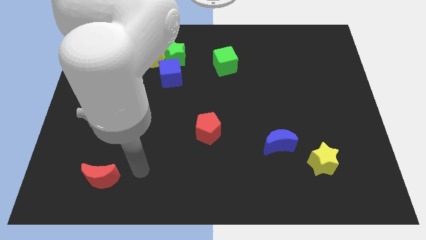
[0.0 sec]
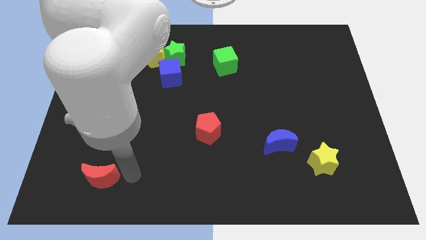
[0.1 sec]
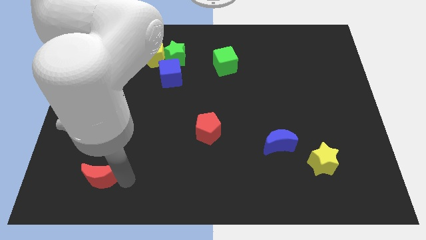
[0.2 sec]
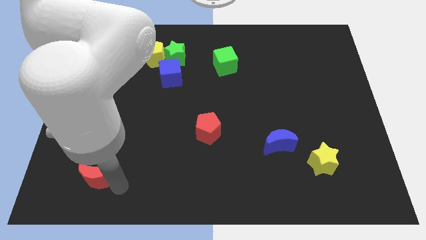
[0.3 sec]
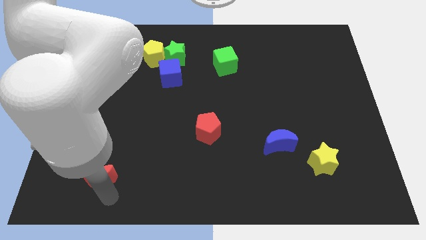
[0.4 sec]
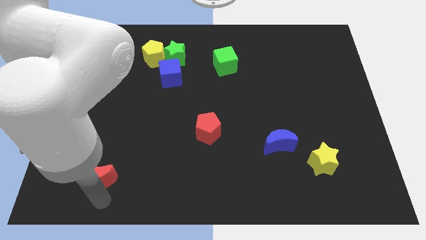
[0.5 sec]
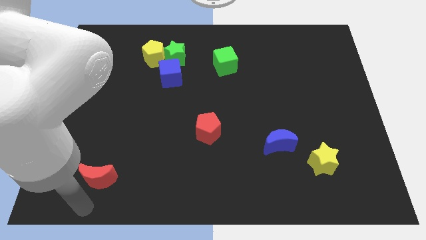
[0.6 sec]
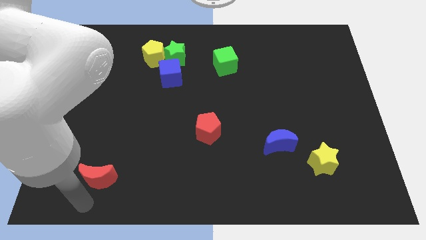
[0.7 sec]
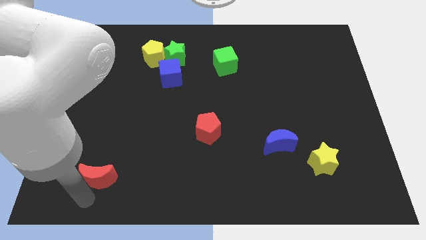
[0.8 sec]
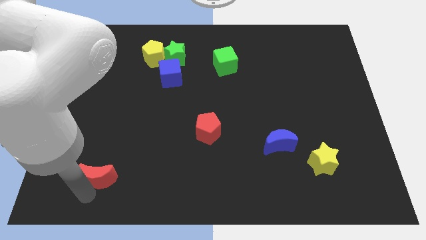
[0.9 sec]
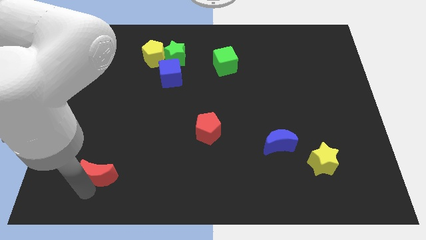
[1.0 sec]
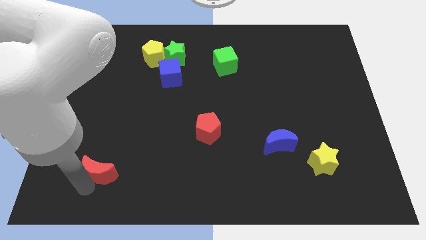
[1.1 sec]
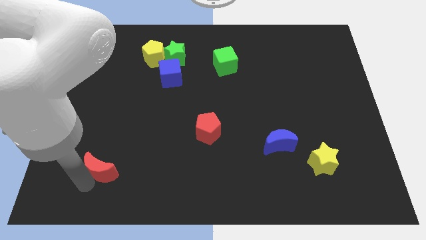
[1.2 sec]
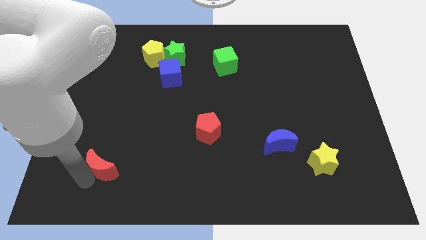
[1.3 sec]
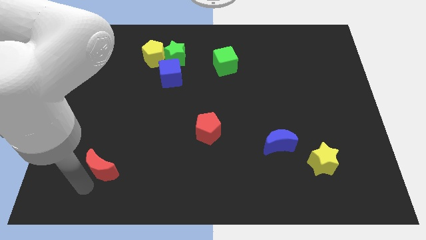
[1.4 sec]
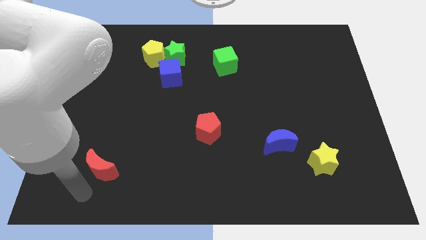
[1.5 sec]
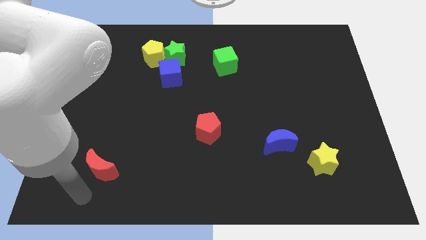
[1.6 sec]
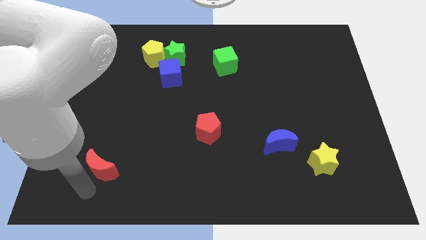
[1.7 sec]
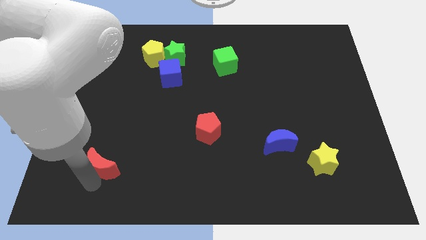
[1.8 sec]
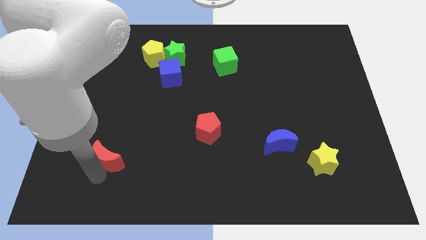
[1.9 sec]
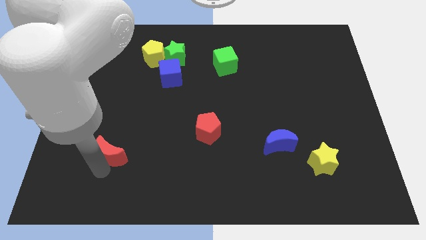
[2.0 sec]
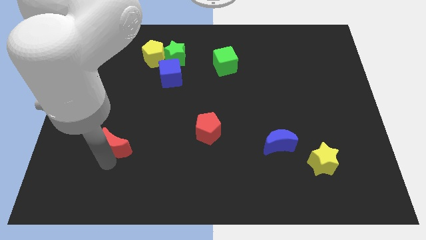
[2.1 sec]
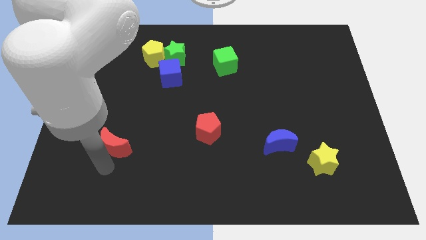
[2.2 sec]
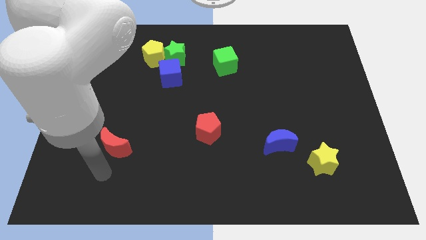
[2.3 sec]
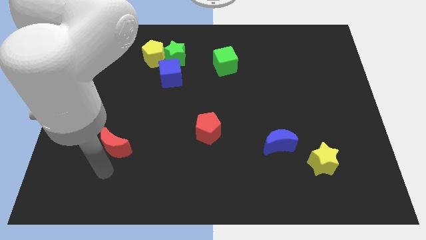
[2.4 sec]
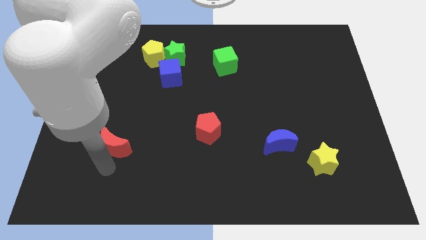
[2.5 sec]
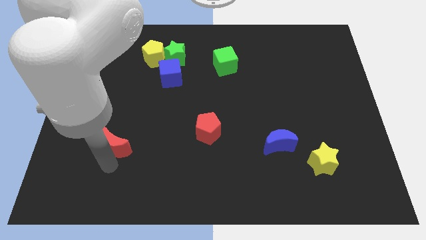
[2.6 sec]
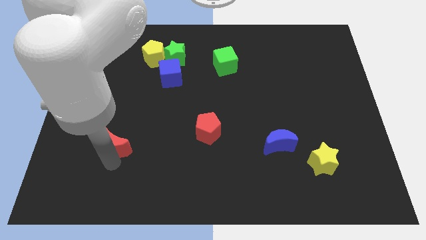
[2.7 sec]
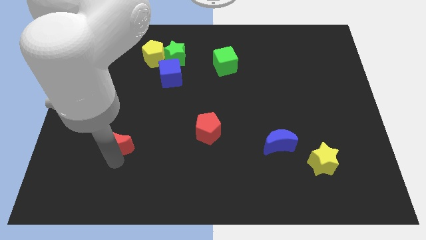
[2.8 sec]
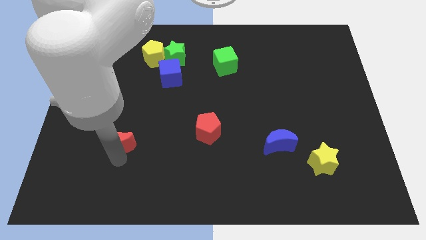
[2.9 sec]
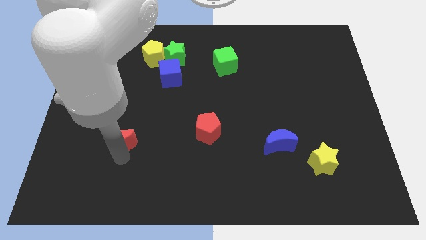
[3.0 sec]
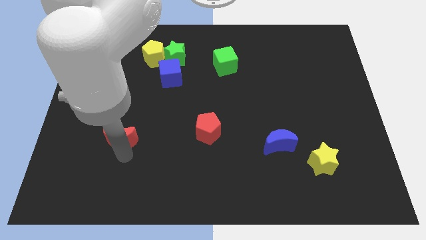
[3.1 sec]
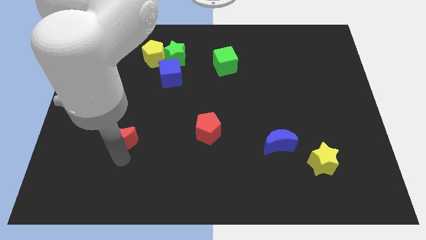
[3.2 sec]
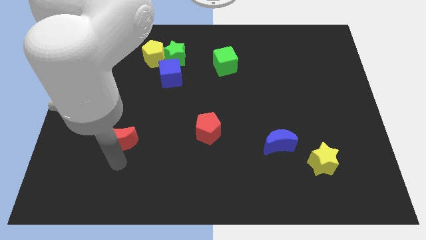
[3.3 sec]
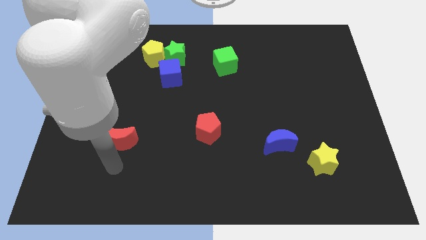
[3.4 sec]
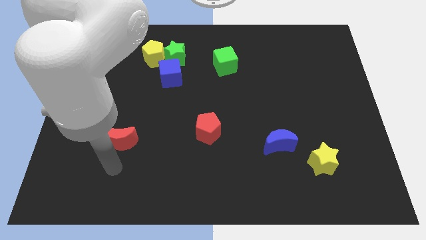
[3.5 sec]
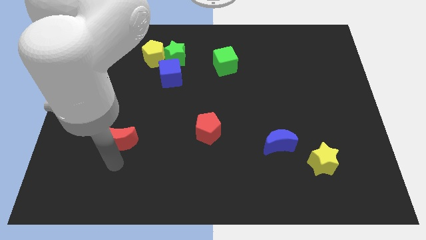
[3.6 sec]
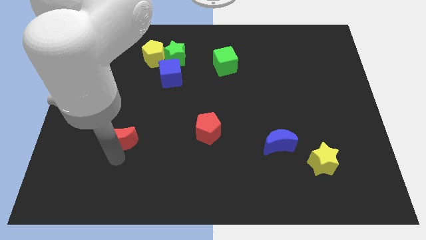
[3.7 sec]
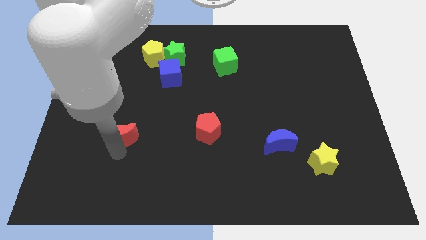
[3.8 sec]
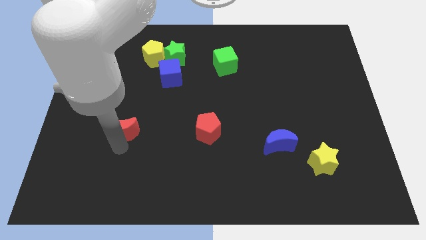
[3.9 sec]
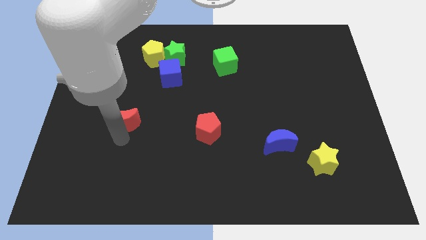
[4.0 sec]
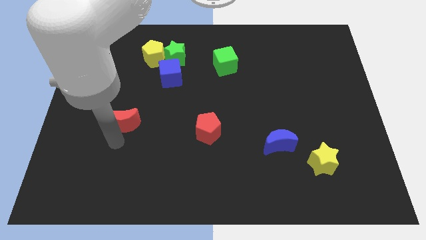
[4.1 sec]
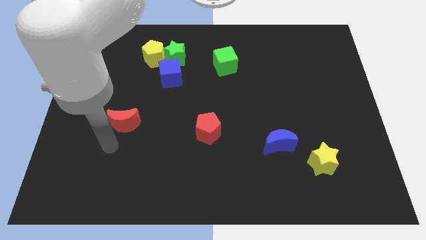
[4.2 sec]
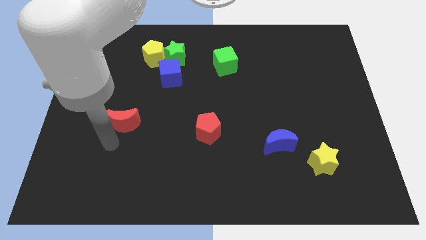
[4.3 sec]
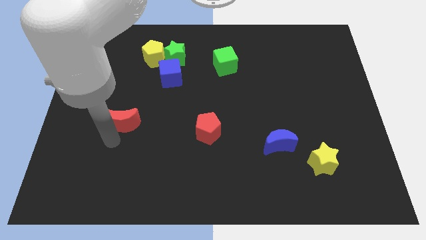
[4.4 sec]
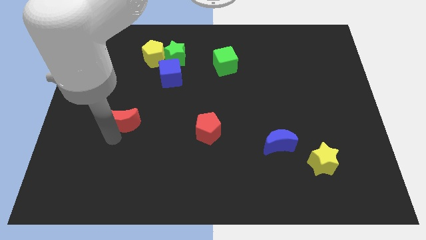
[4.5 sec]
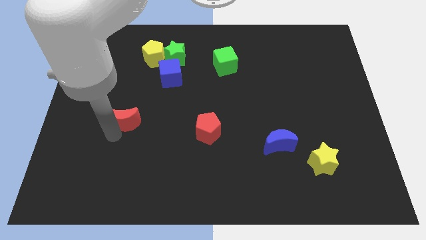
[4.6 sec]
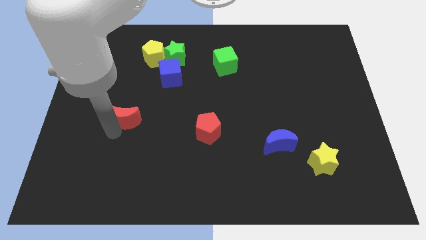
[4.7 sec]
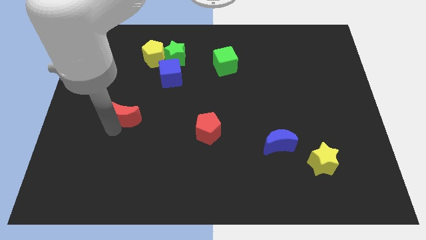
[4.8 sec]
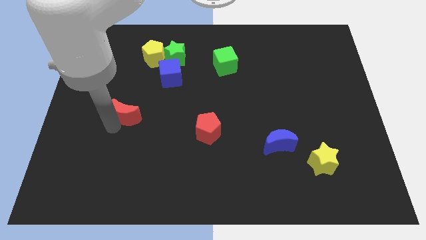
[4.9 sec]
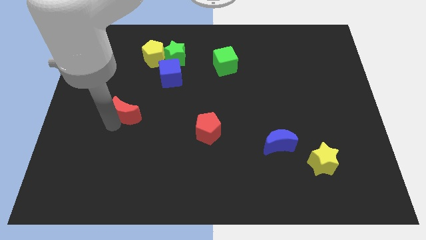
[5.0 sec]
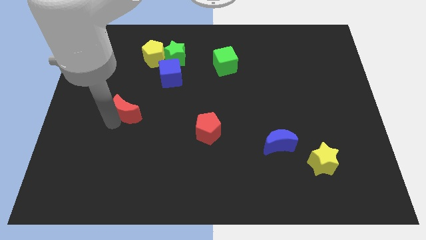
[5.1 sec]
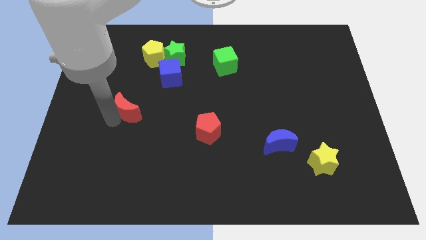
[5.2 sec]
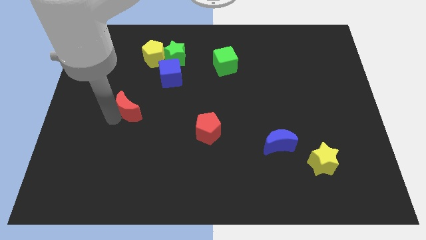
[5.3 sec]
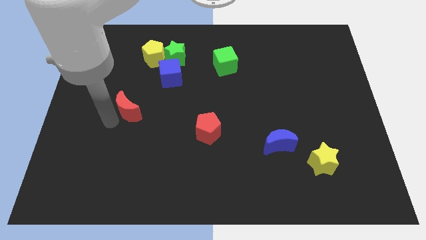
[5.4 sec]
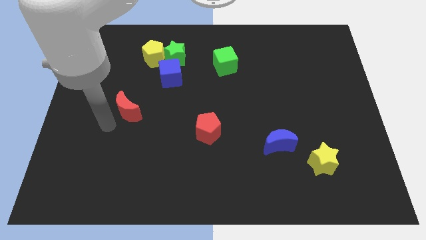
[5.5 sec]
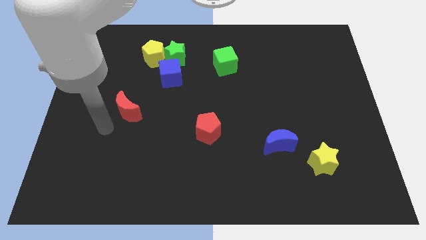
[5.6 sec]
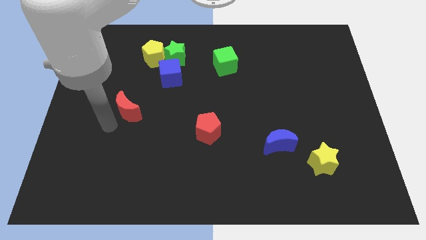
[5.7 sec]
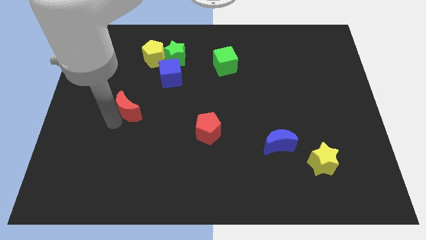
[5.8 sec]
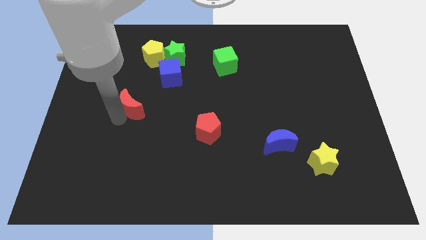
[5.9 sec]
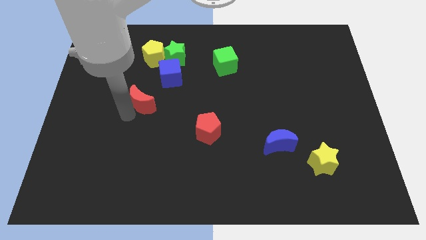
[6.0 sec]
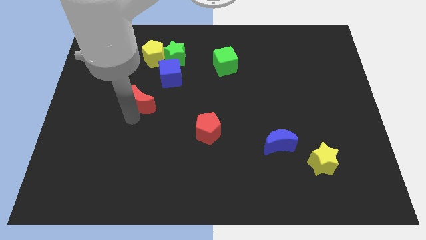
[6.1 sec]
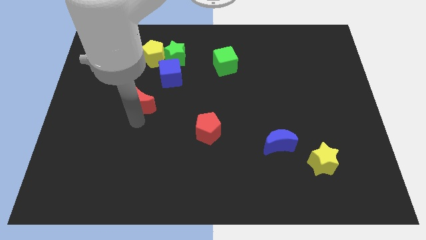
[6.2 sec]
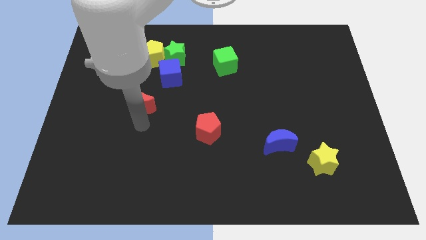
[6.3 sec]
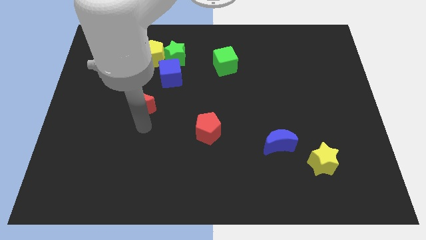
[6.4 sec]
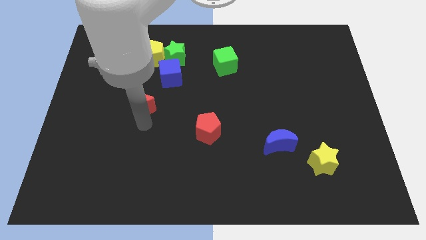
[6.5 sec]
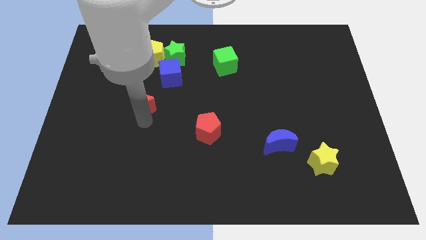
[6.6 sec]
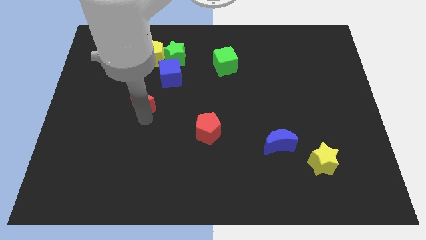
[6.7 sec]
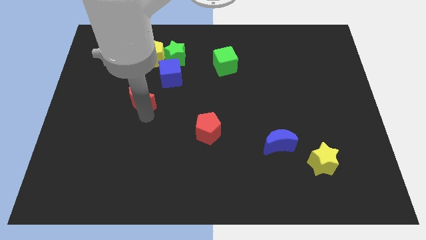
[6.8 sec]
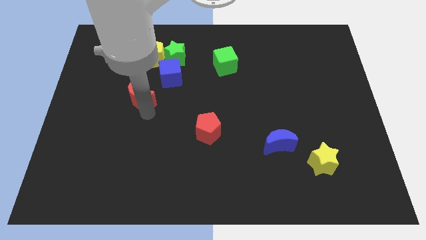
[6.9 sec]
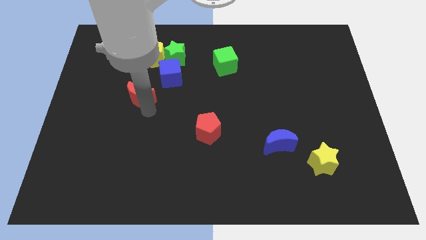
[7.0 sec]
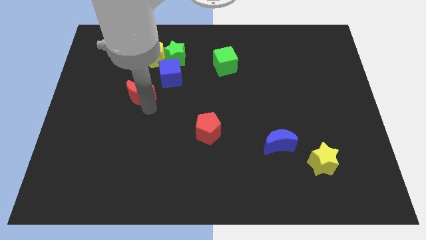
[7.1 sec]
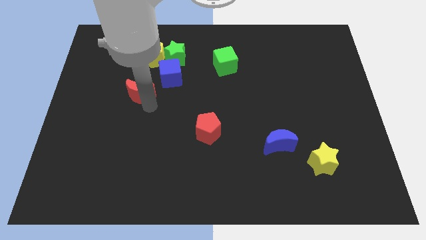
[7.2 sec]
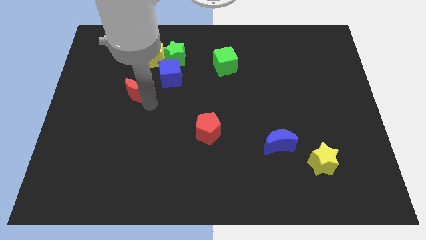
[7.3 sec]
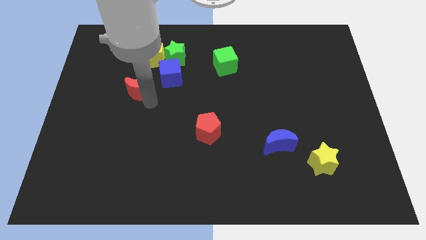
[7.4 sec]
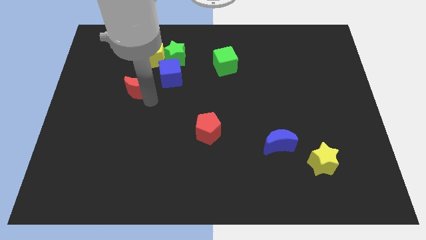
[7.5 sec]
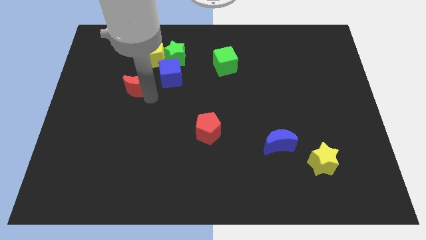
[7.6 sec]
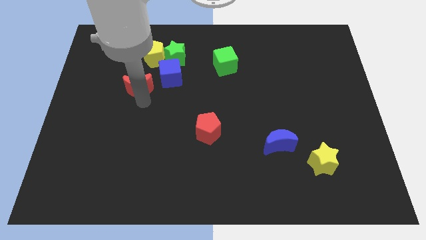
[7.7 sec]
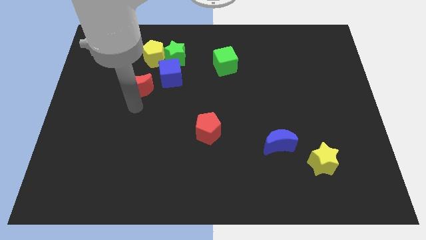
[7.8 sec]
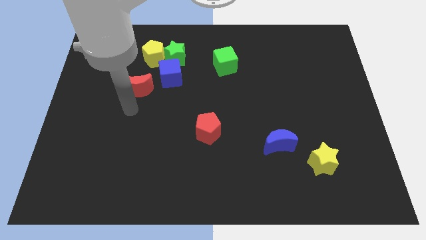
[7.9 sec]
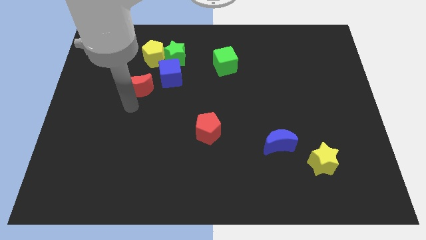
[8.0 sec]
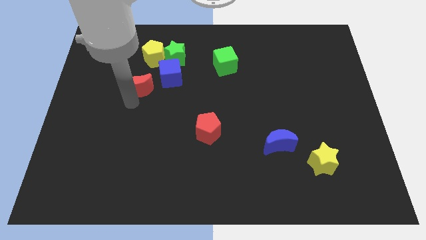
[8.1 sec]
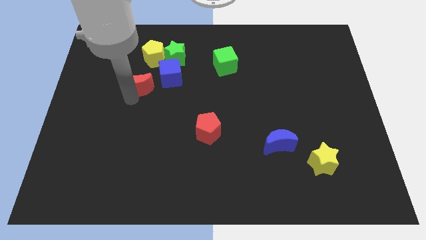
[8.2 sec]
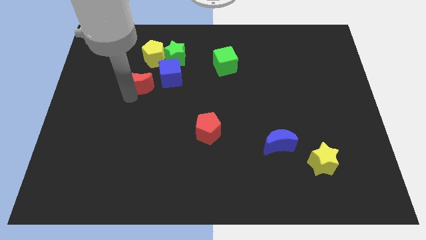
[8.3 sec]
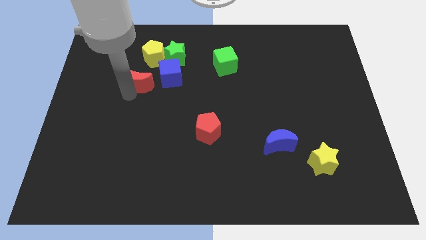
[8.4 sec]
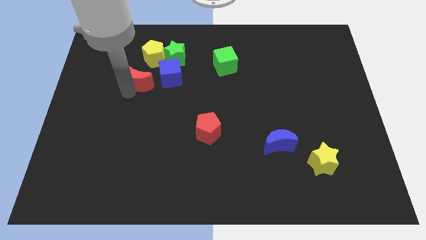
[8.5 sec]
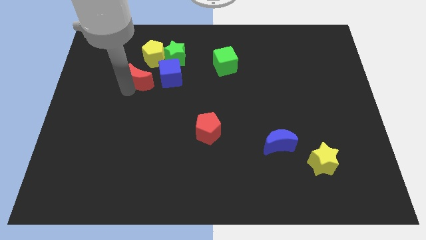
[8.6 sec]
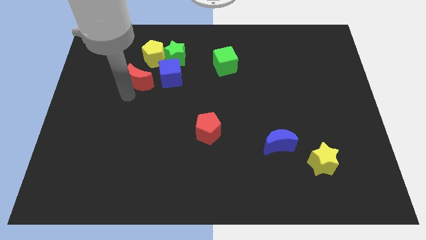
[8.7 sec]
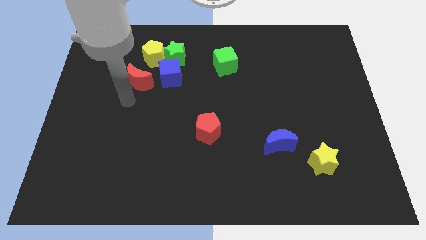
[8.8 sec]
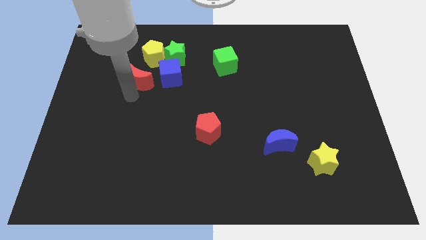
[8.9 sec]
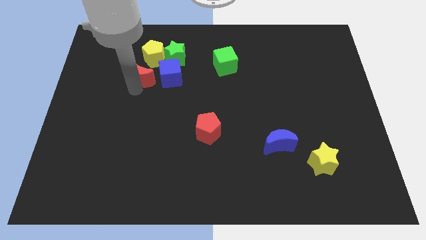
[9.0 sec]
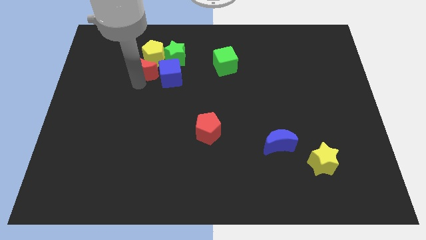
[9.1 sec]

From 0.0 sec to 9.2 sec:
slide the red moon close to the yellow pentagon
